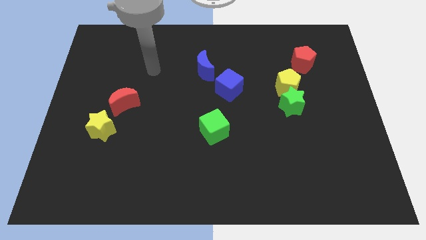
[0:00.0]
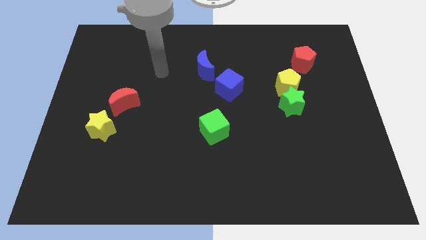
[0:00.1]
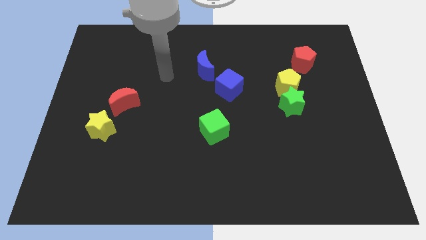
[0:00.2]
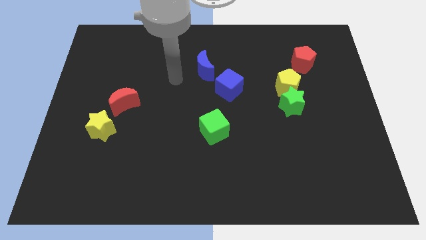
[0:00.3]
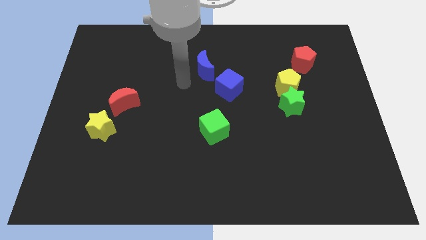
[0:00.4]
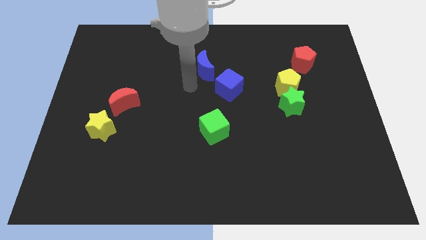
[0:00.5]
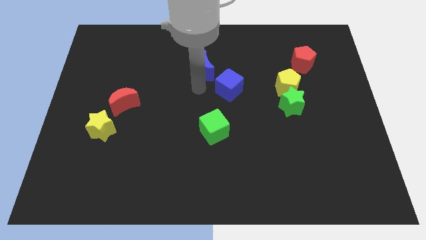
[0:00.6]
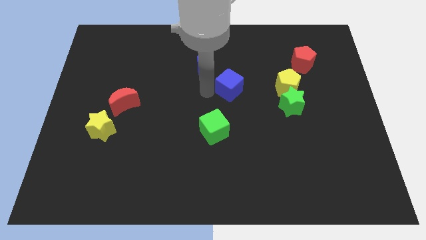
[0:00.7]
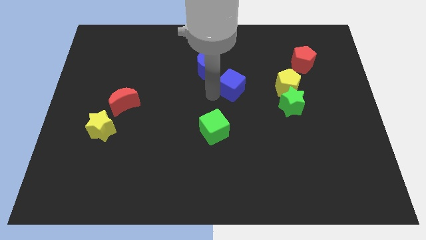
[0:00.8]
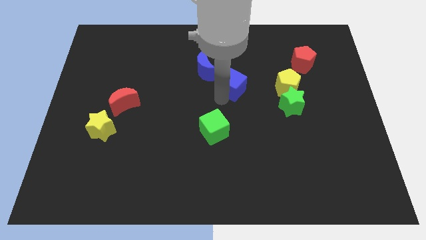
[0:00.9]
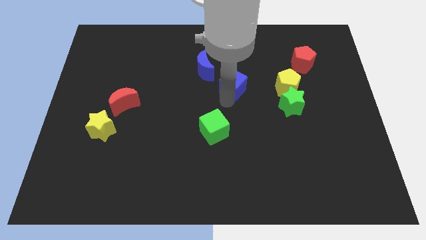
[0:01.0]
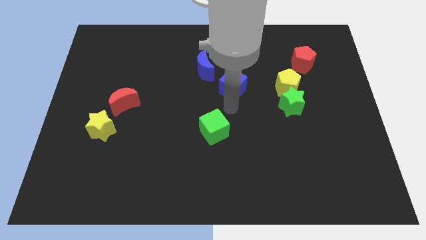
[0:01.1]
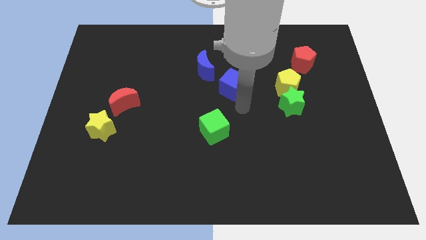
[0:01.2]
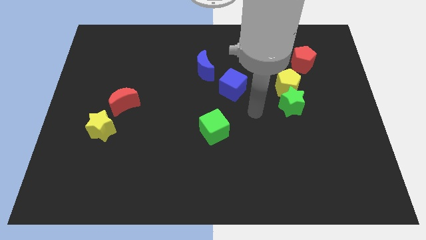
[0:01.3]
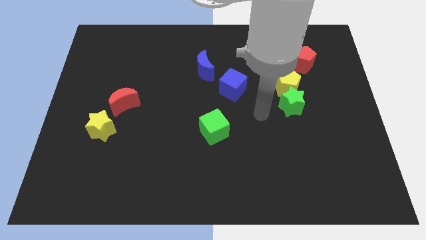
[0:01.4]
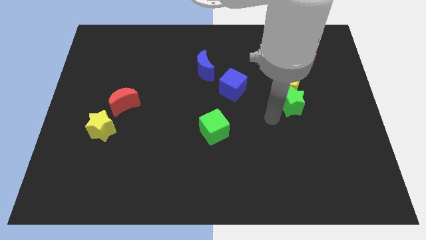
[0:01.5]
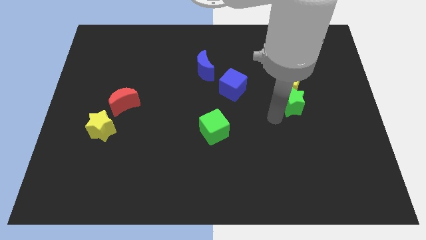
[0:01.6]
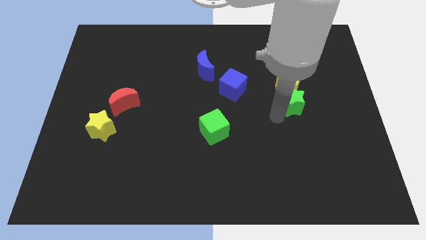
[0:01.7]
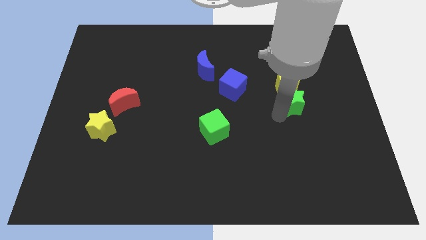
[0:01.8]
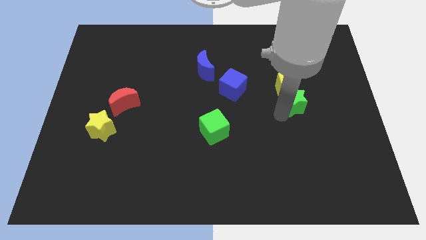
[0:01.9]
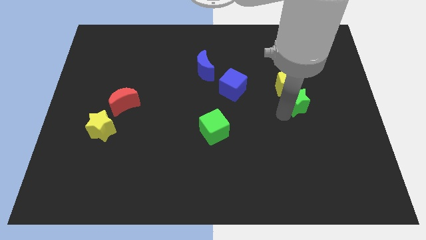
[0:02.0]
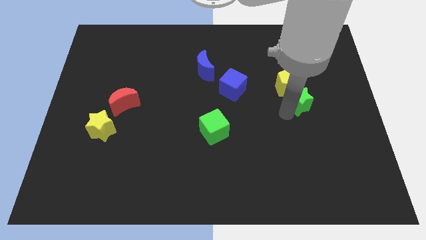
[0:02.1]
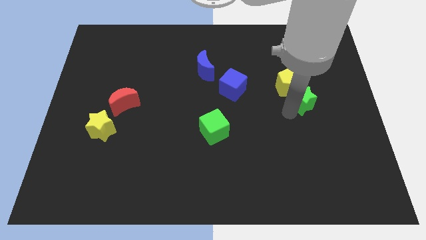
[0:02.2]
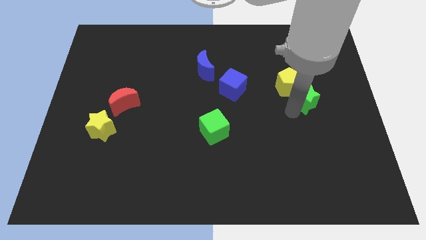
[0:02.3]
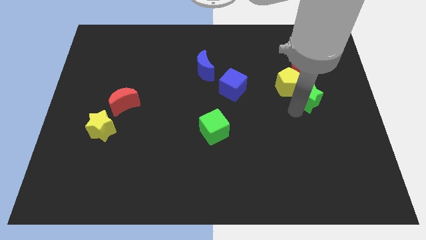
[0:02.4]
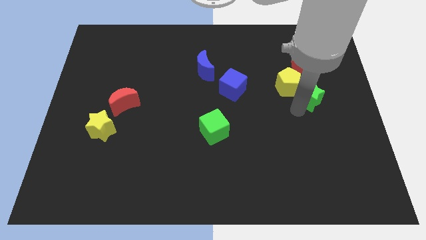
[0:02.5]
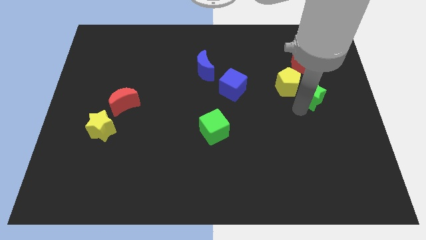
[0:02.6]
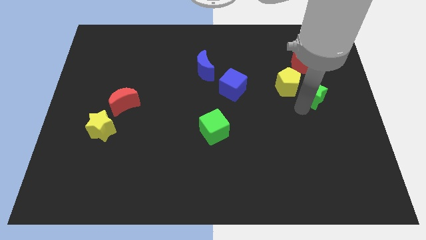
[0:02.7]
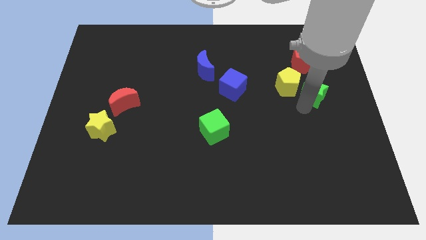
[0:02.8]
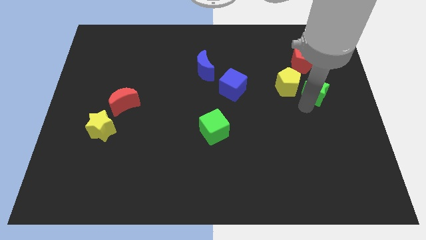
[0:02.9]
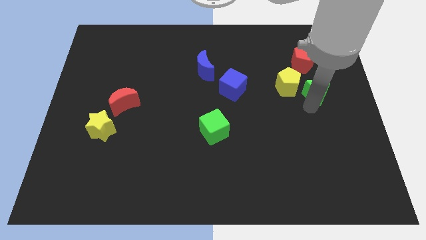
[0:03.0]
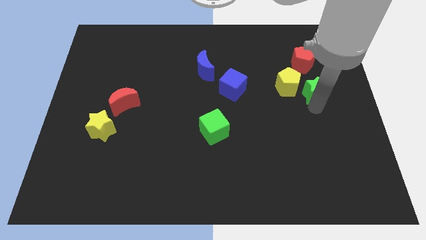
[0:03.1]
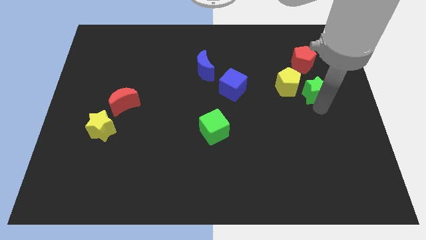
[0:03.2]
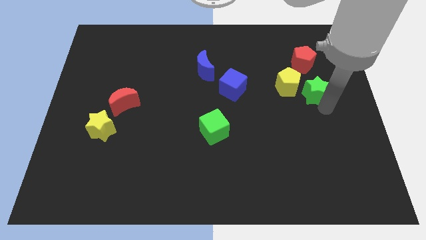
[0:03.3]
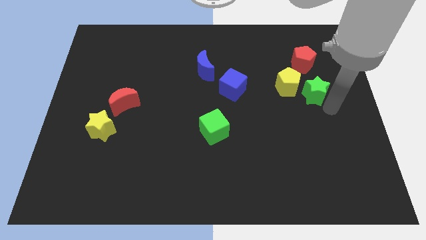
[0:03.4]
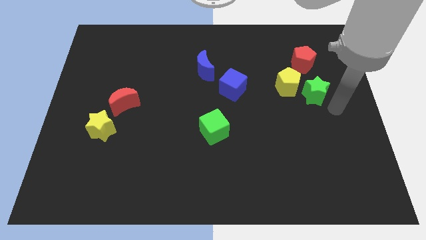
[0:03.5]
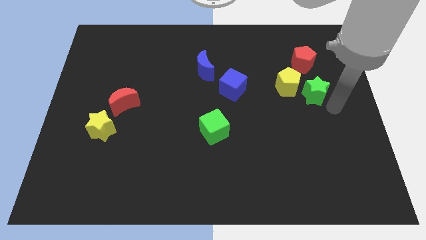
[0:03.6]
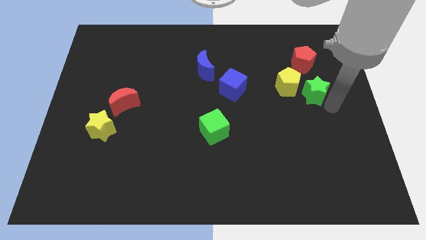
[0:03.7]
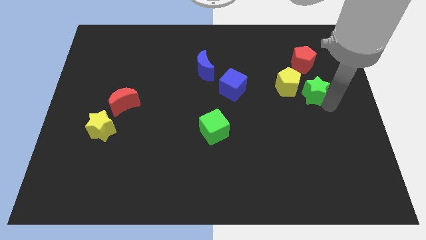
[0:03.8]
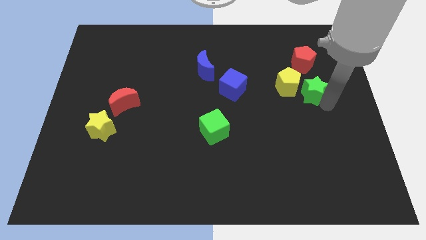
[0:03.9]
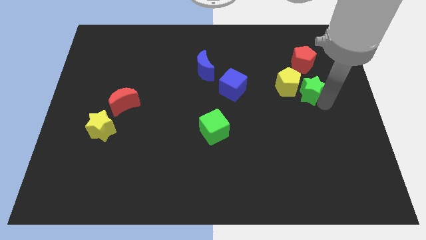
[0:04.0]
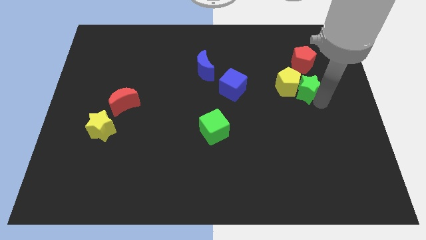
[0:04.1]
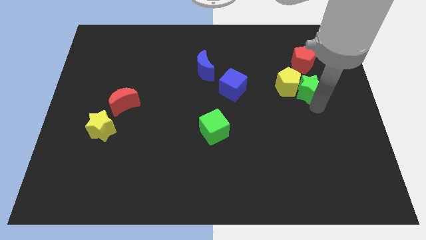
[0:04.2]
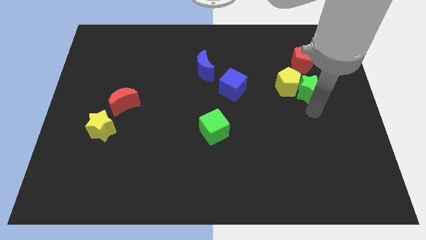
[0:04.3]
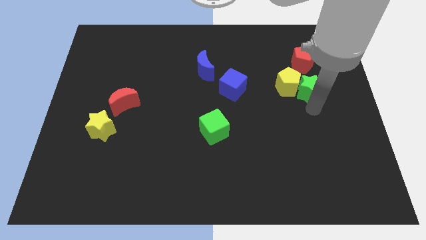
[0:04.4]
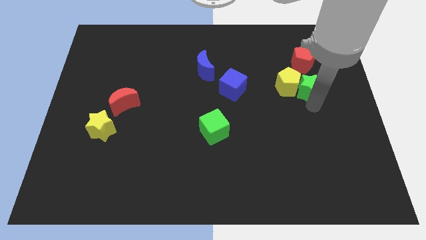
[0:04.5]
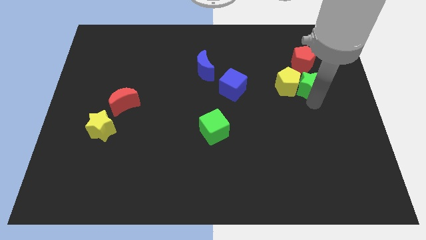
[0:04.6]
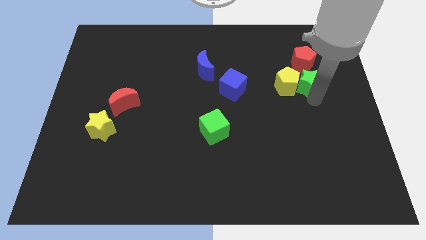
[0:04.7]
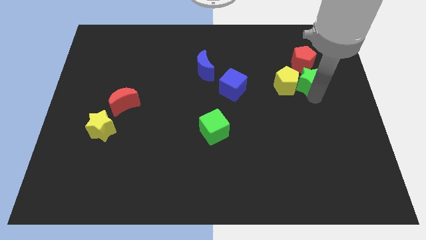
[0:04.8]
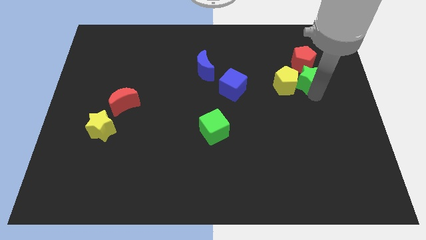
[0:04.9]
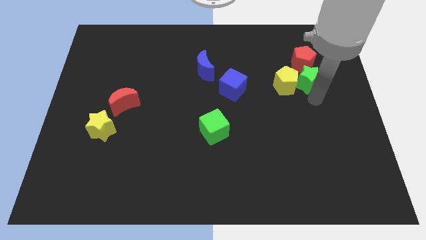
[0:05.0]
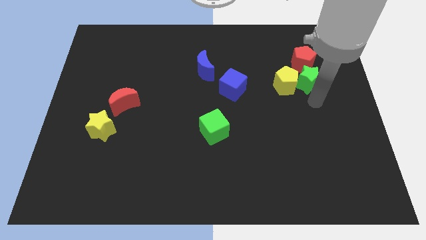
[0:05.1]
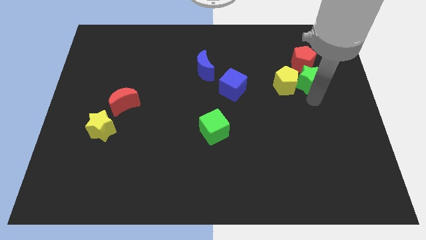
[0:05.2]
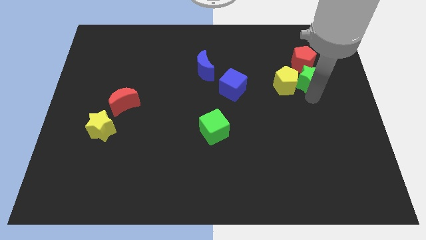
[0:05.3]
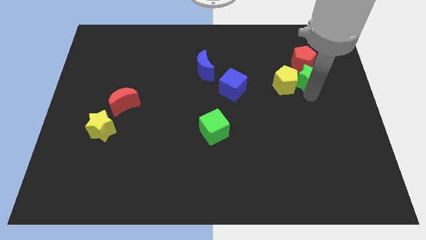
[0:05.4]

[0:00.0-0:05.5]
push the green star next to the red pentagon
